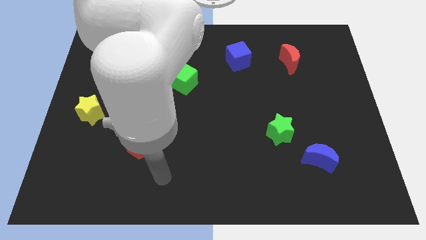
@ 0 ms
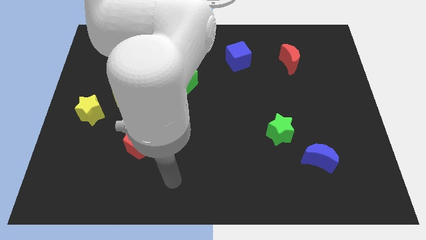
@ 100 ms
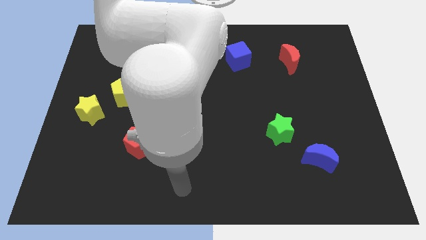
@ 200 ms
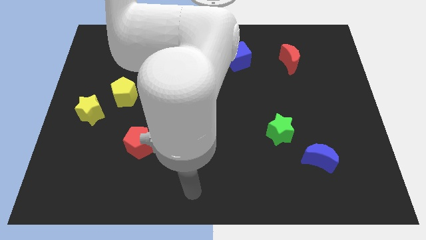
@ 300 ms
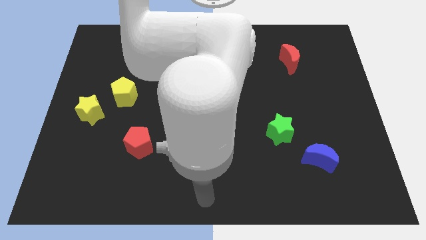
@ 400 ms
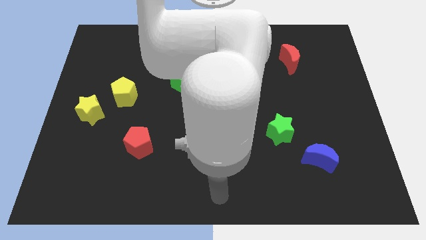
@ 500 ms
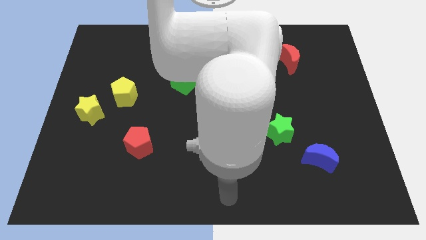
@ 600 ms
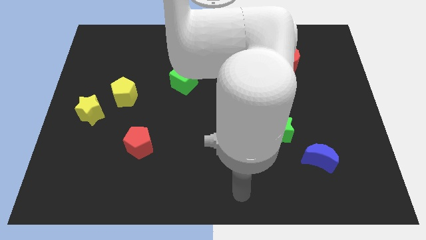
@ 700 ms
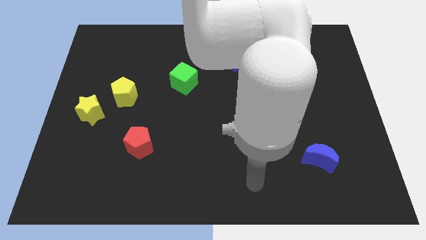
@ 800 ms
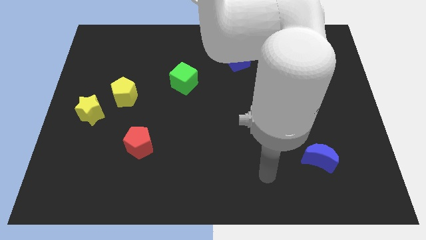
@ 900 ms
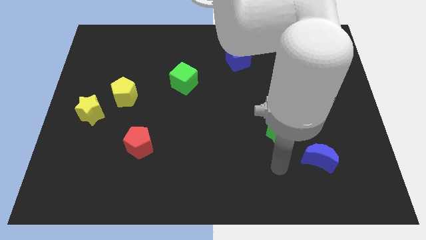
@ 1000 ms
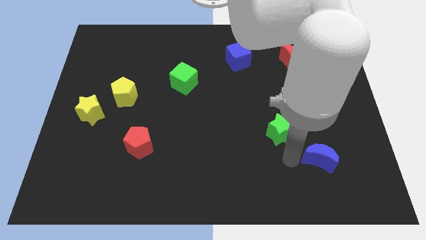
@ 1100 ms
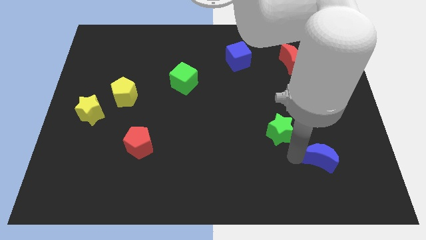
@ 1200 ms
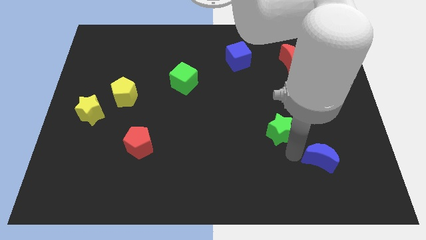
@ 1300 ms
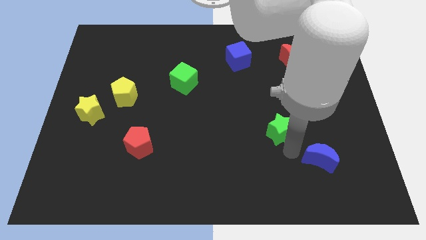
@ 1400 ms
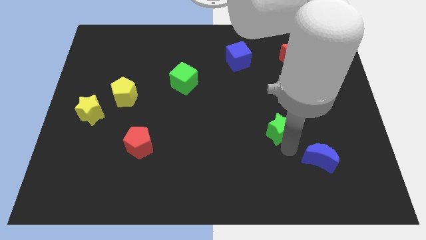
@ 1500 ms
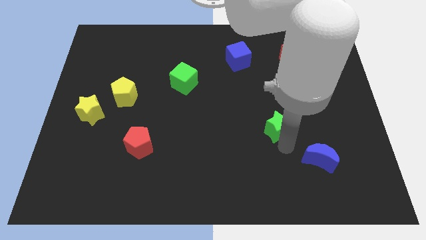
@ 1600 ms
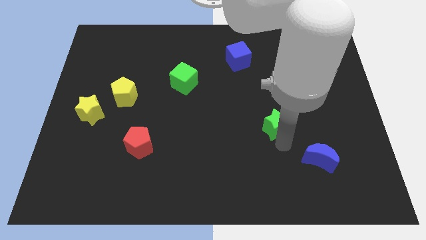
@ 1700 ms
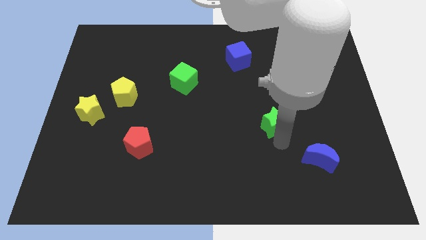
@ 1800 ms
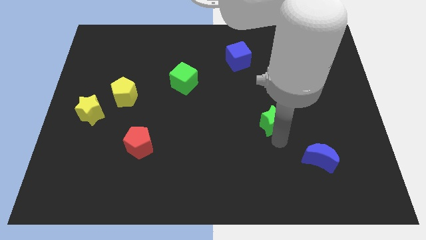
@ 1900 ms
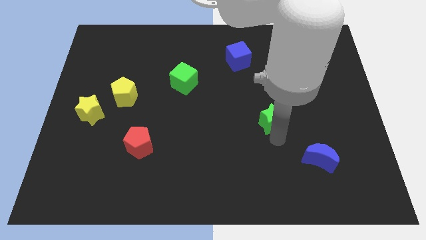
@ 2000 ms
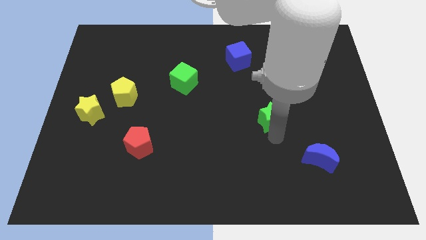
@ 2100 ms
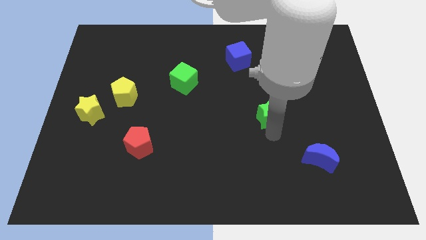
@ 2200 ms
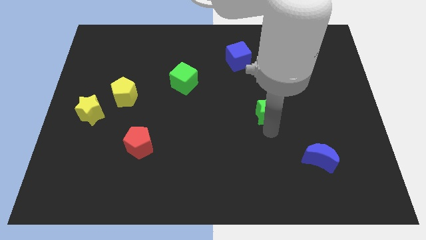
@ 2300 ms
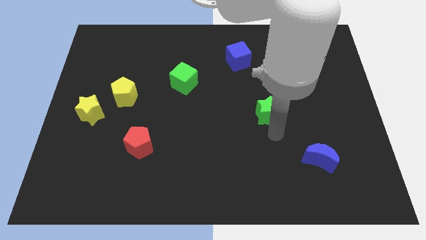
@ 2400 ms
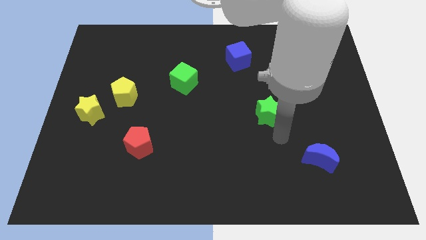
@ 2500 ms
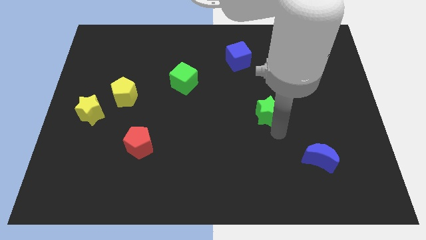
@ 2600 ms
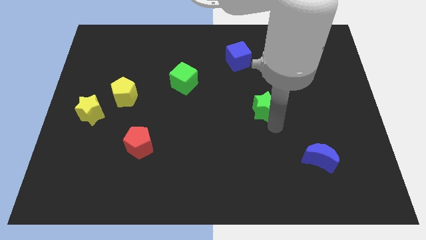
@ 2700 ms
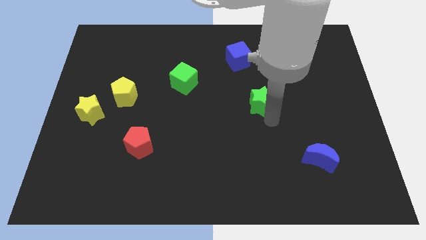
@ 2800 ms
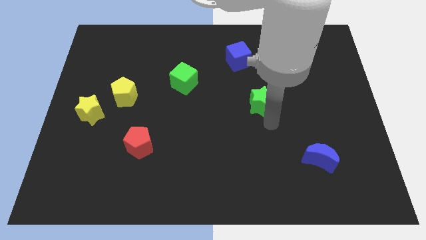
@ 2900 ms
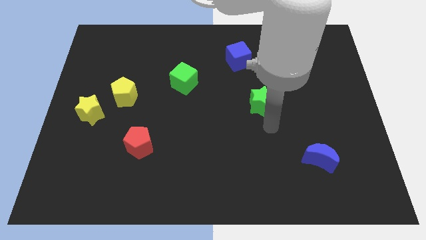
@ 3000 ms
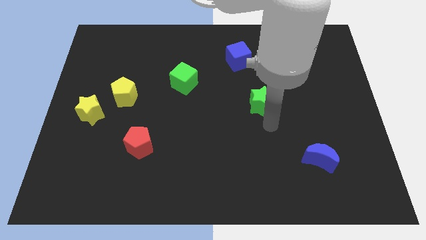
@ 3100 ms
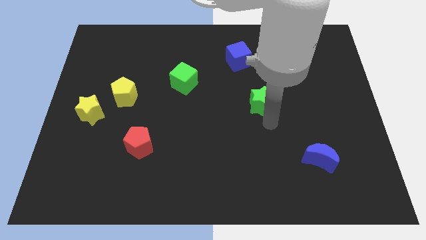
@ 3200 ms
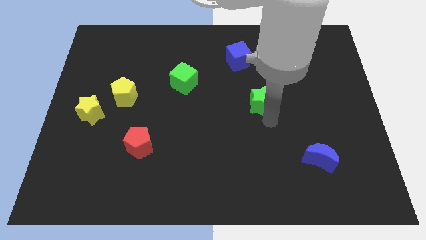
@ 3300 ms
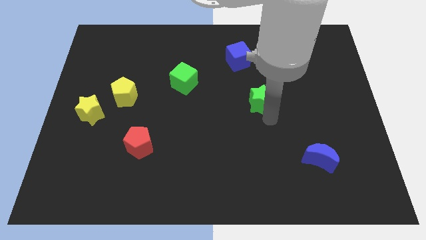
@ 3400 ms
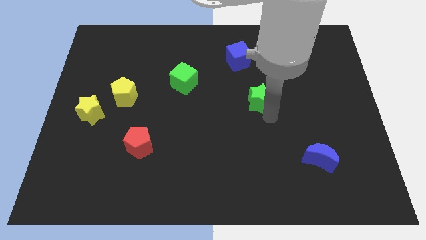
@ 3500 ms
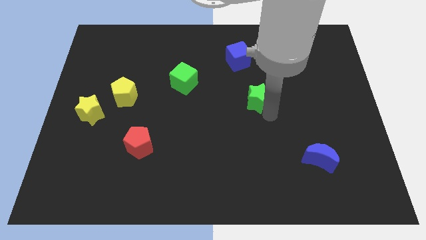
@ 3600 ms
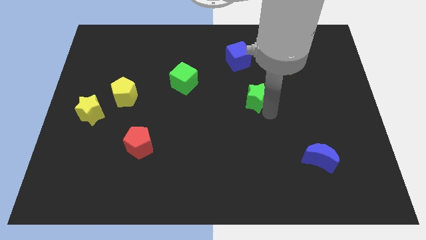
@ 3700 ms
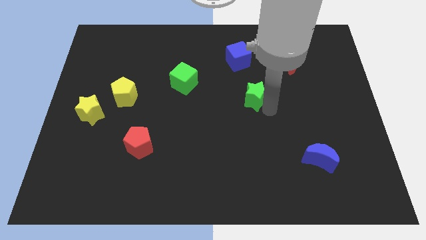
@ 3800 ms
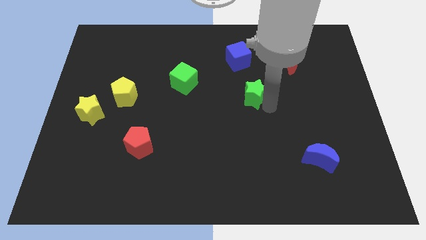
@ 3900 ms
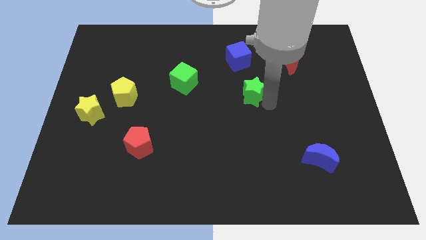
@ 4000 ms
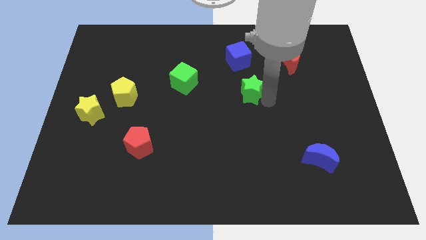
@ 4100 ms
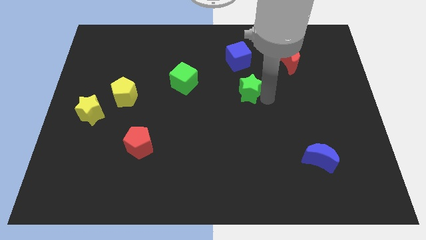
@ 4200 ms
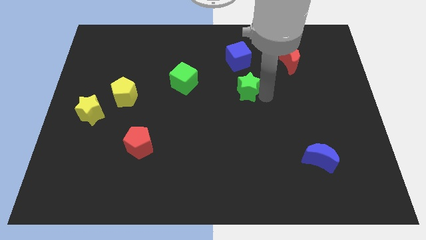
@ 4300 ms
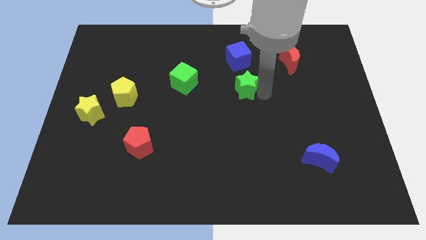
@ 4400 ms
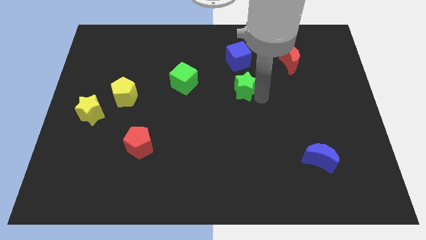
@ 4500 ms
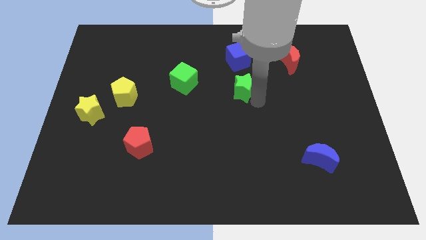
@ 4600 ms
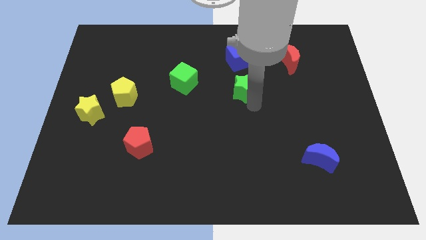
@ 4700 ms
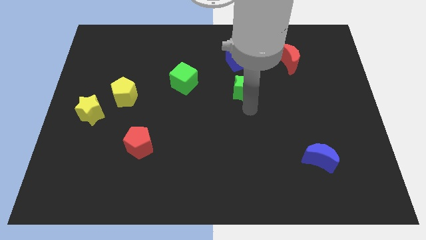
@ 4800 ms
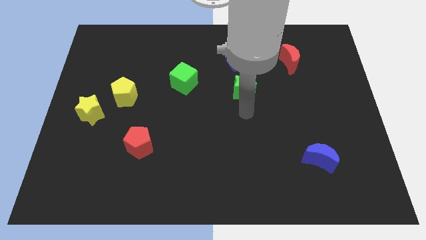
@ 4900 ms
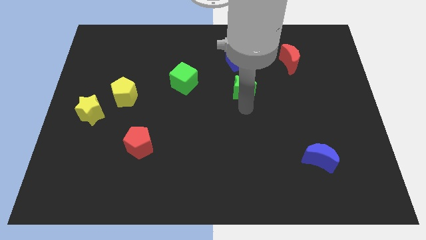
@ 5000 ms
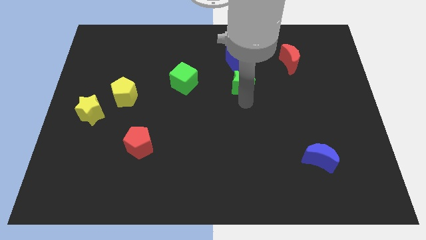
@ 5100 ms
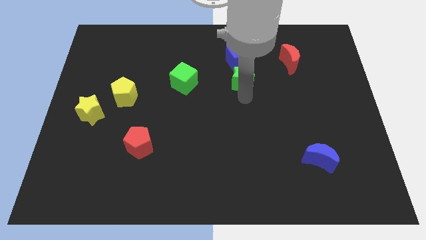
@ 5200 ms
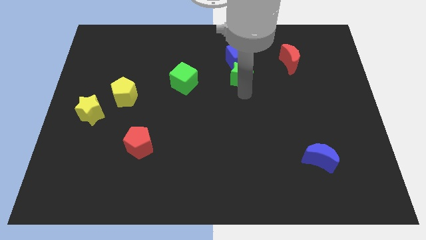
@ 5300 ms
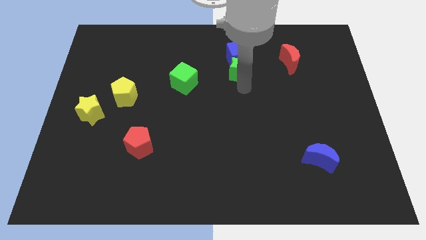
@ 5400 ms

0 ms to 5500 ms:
put the green star to the blue cube

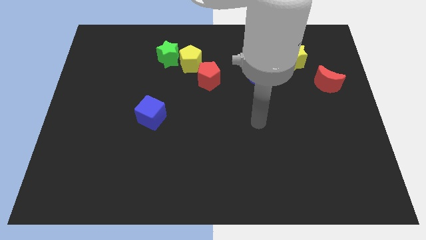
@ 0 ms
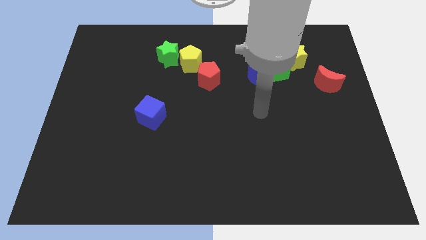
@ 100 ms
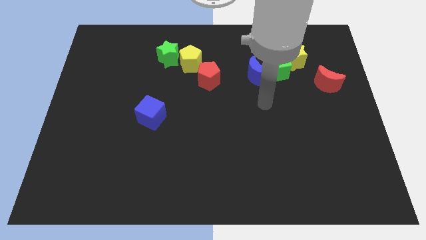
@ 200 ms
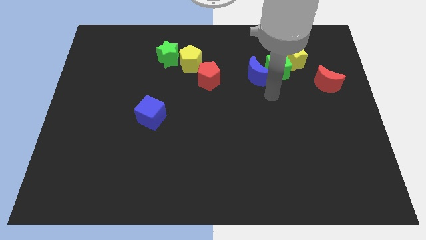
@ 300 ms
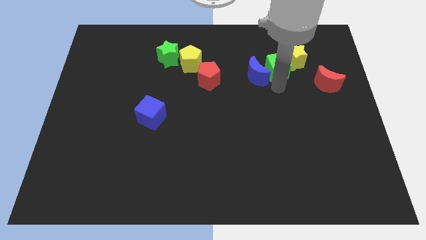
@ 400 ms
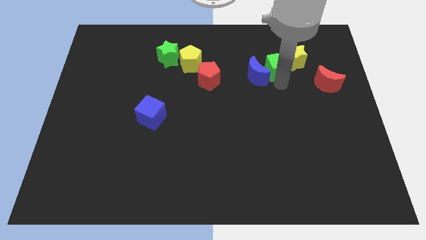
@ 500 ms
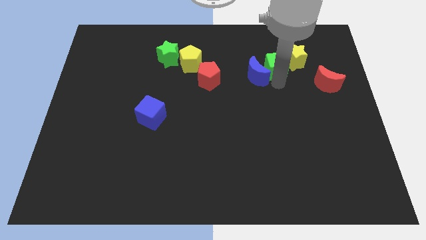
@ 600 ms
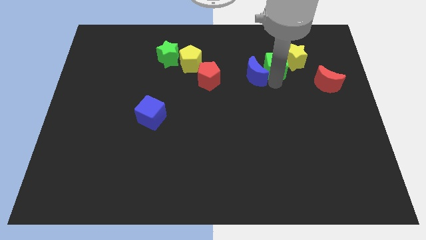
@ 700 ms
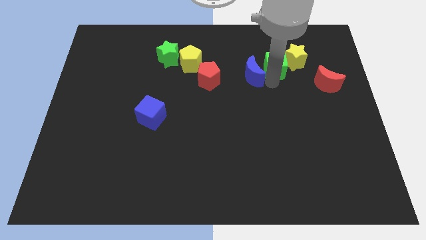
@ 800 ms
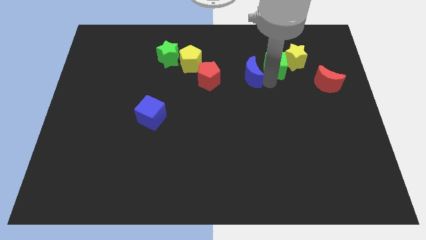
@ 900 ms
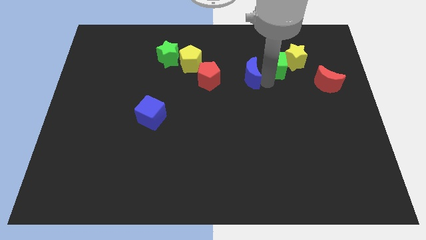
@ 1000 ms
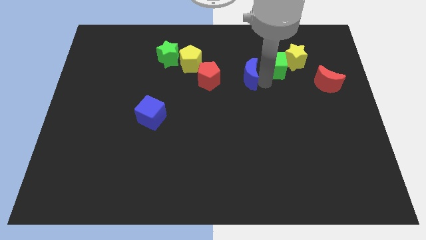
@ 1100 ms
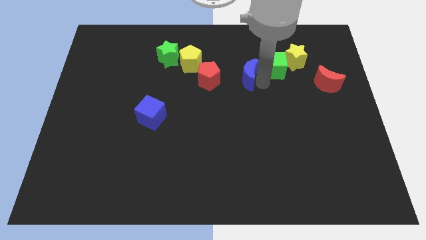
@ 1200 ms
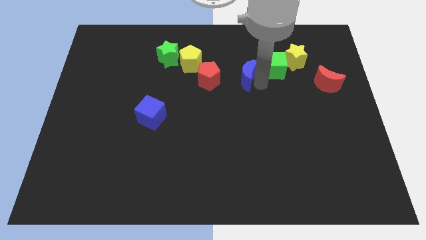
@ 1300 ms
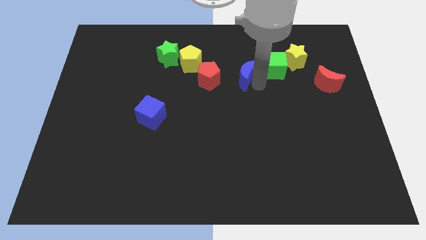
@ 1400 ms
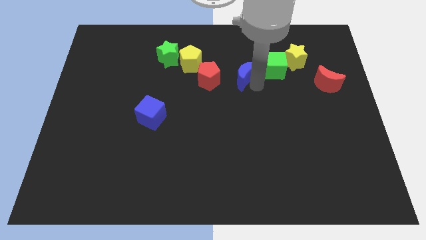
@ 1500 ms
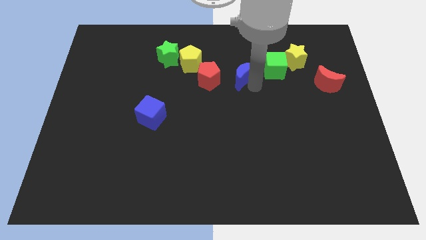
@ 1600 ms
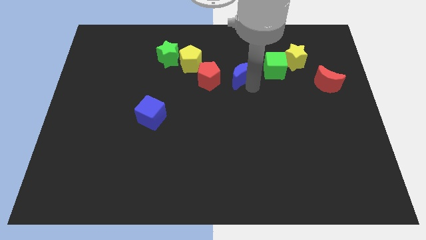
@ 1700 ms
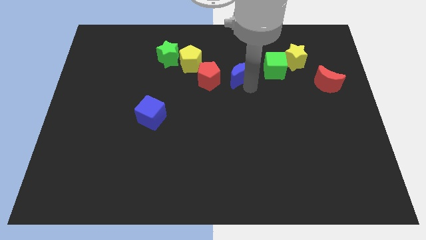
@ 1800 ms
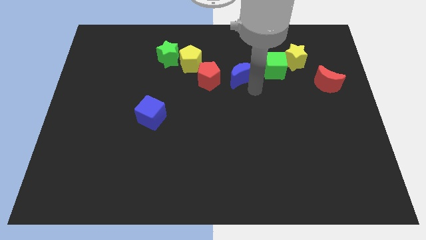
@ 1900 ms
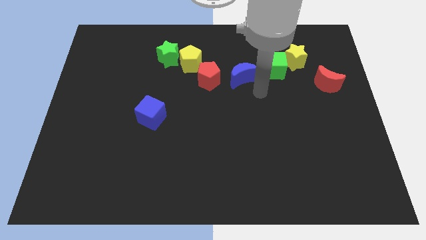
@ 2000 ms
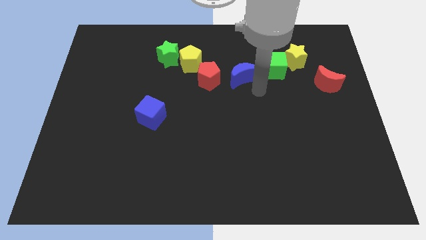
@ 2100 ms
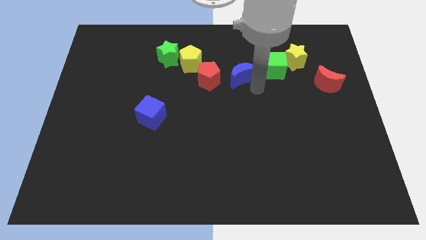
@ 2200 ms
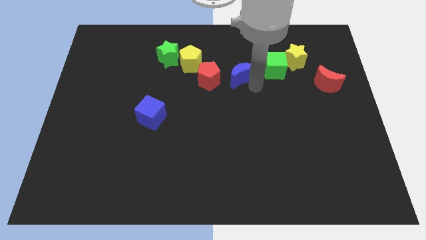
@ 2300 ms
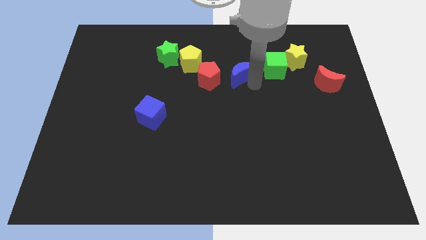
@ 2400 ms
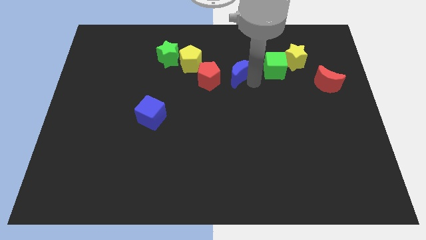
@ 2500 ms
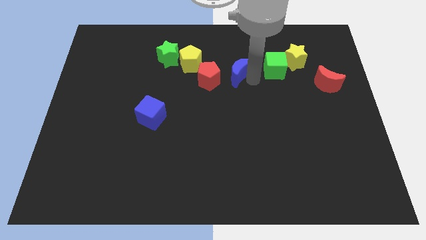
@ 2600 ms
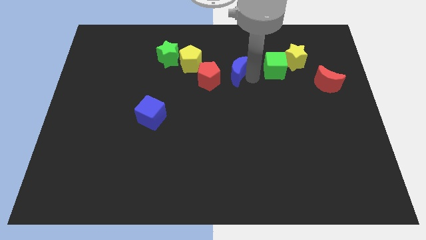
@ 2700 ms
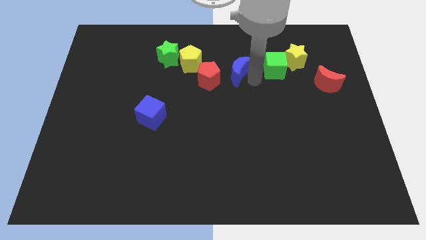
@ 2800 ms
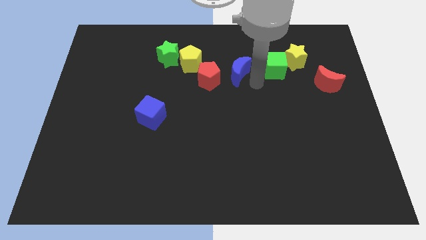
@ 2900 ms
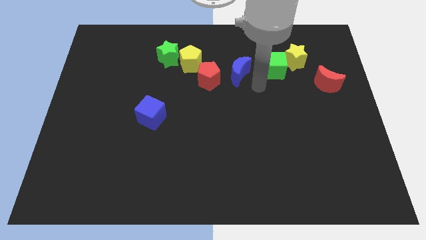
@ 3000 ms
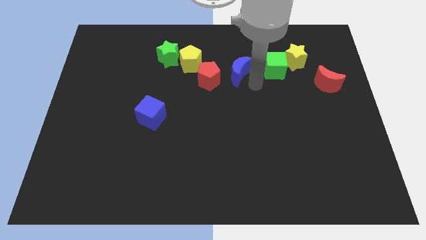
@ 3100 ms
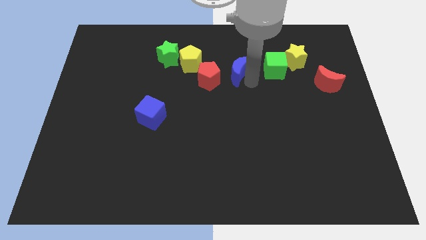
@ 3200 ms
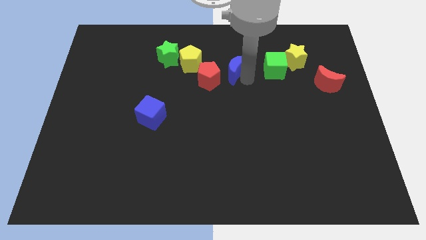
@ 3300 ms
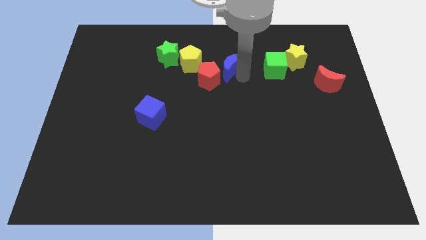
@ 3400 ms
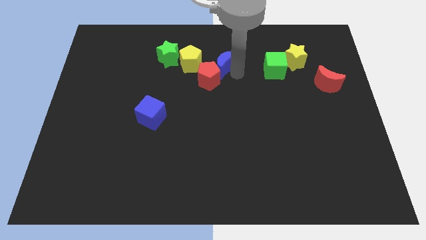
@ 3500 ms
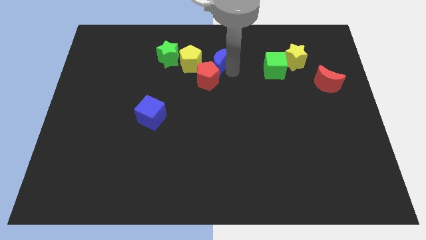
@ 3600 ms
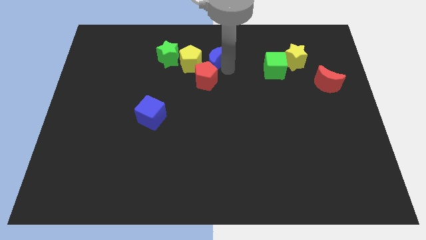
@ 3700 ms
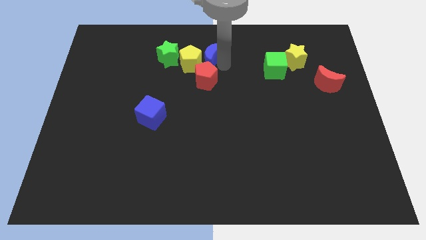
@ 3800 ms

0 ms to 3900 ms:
move the blue moon close to the yellow pentagon
